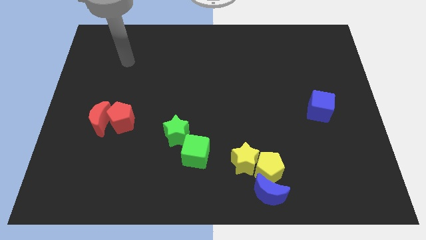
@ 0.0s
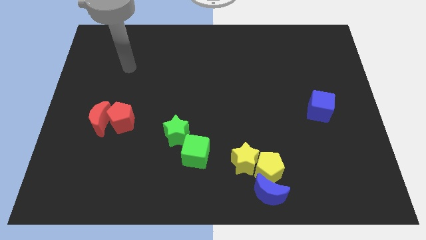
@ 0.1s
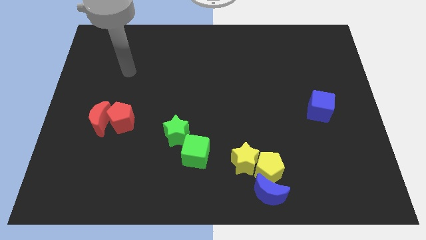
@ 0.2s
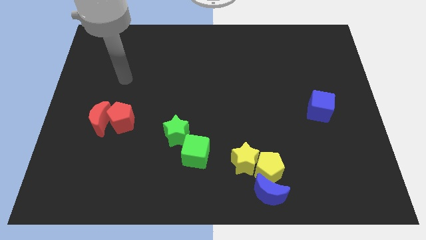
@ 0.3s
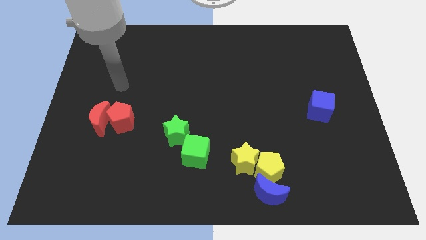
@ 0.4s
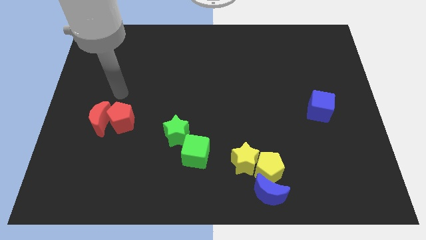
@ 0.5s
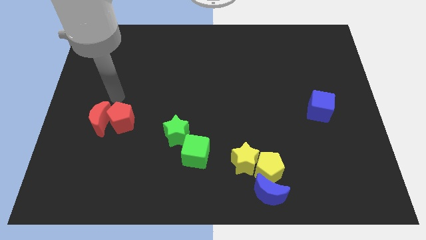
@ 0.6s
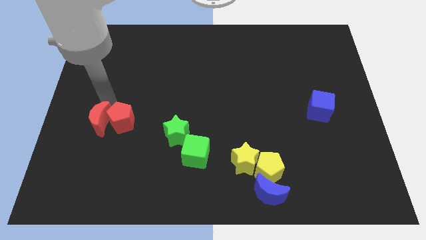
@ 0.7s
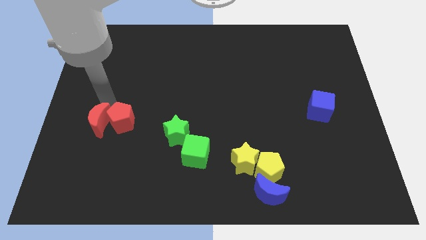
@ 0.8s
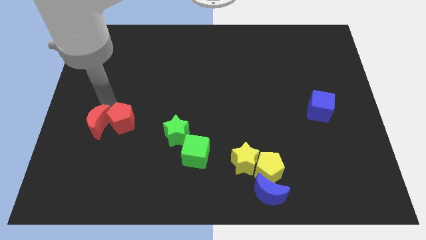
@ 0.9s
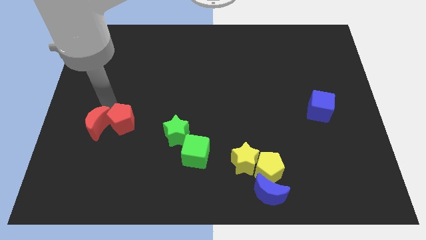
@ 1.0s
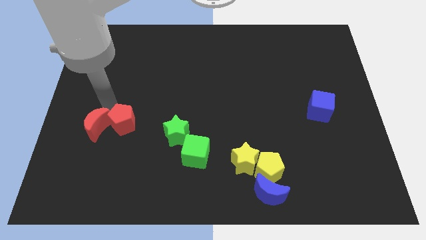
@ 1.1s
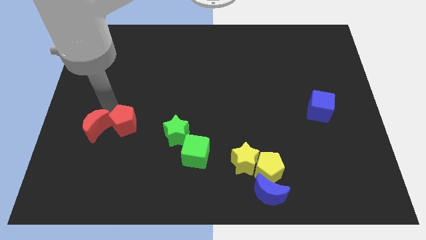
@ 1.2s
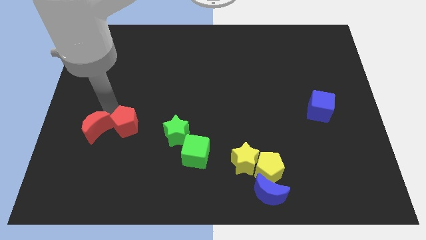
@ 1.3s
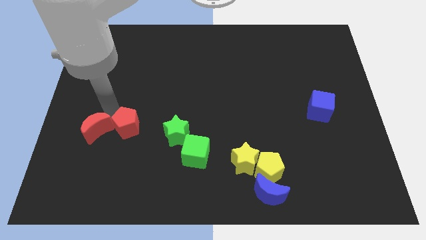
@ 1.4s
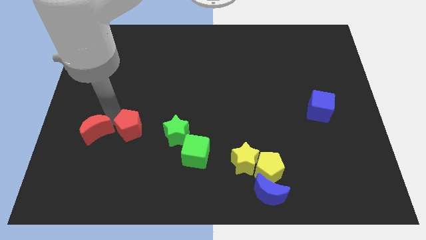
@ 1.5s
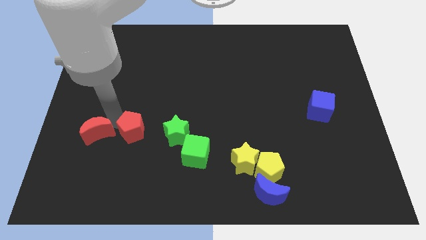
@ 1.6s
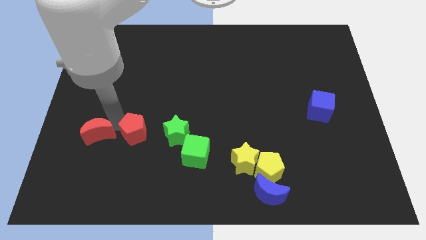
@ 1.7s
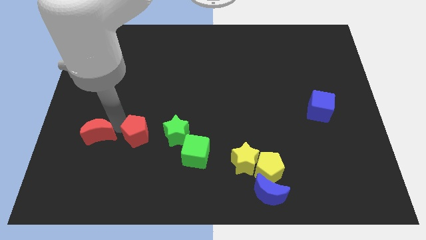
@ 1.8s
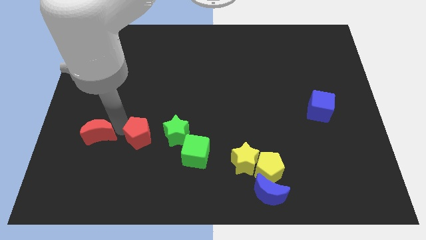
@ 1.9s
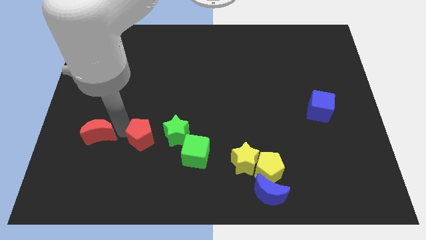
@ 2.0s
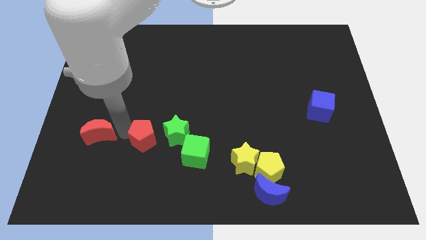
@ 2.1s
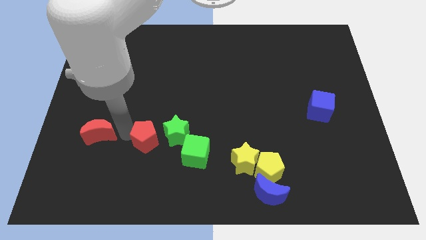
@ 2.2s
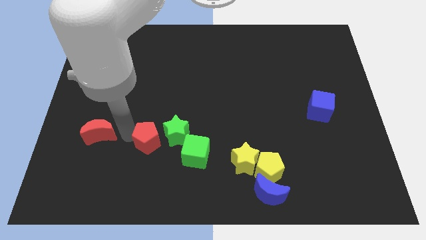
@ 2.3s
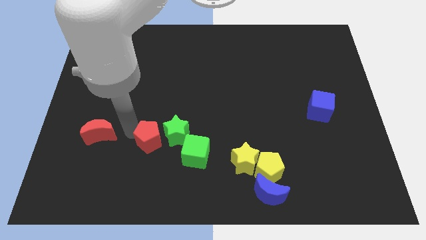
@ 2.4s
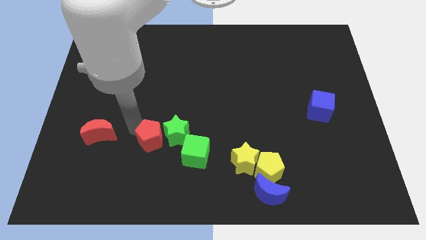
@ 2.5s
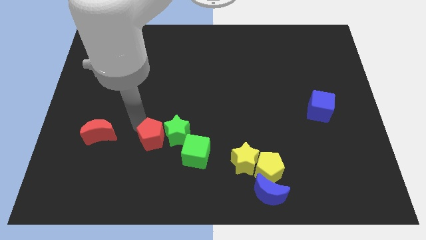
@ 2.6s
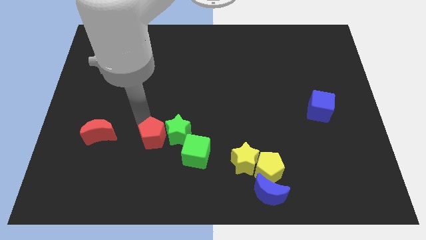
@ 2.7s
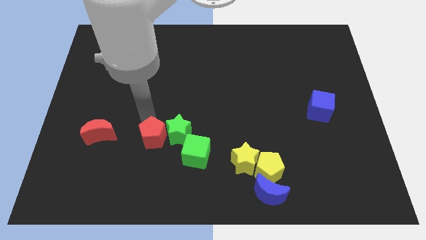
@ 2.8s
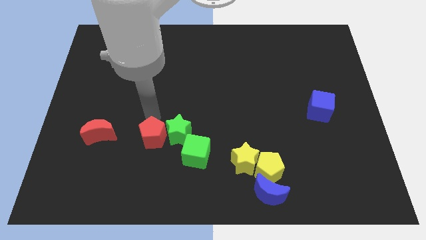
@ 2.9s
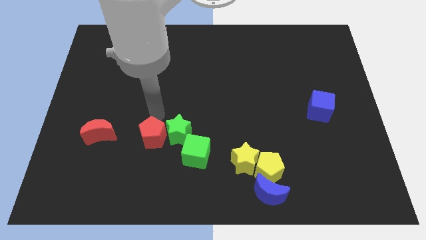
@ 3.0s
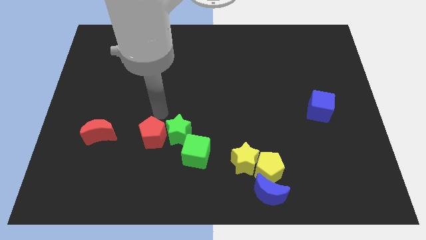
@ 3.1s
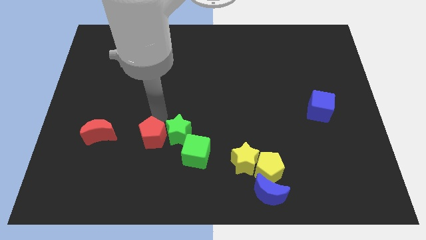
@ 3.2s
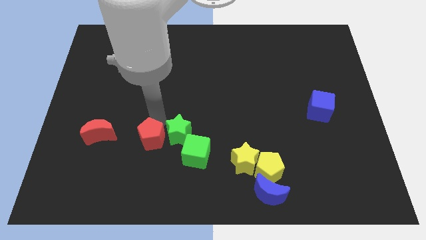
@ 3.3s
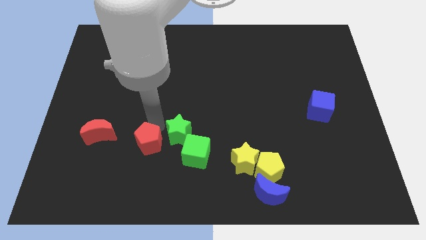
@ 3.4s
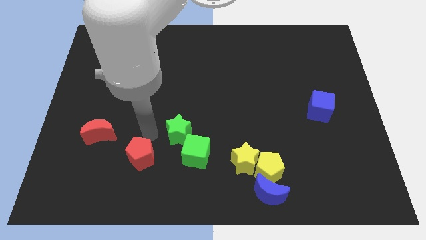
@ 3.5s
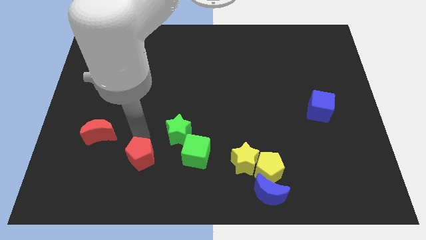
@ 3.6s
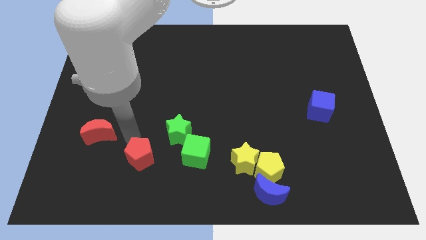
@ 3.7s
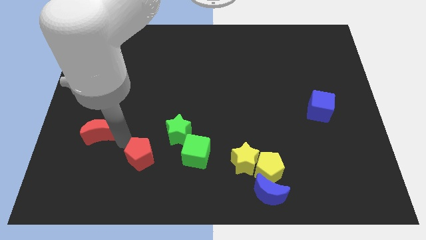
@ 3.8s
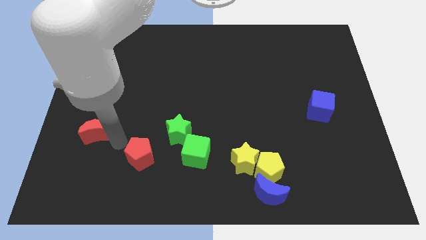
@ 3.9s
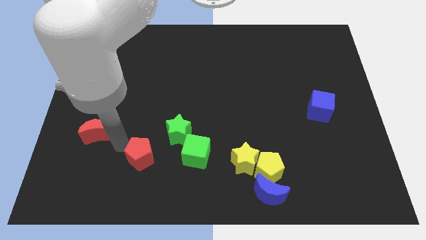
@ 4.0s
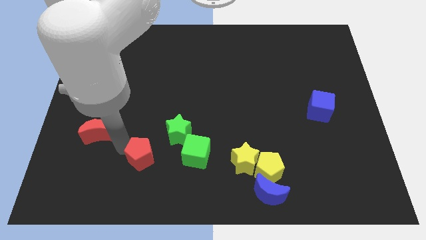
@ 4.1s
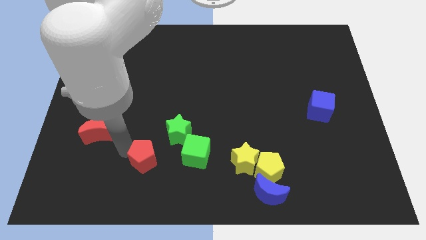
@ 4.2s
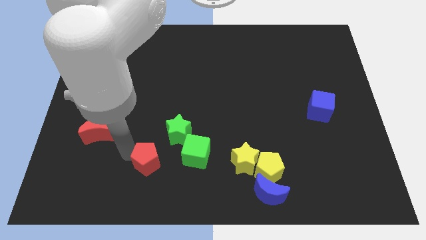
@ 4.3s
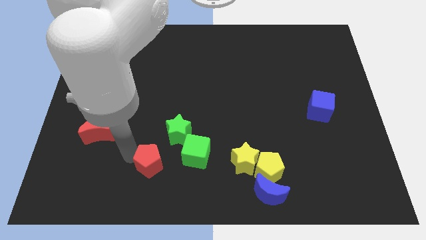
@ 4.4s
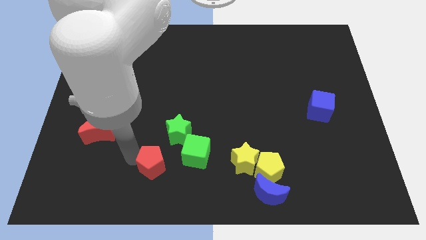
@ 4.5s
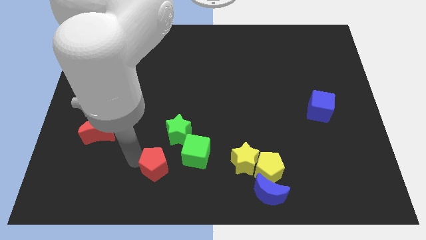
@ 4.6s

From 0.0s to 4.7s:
move the red pentagon to the bottom side of the green star

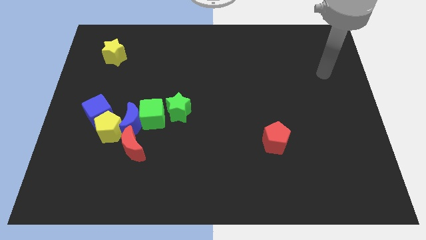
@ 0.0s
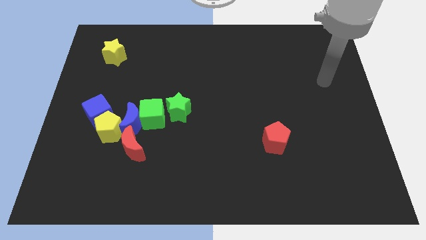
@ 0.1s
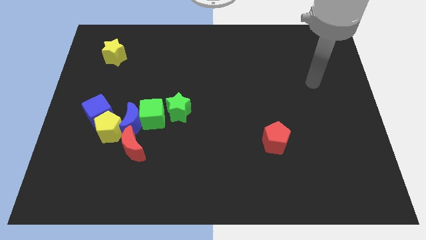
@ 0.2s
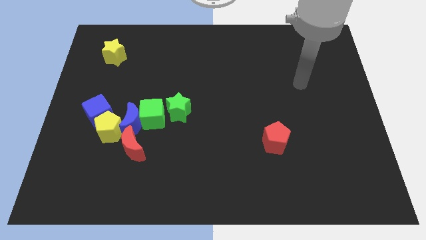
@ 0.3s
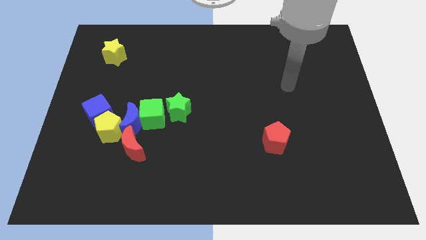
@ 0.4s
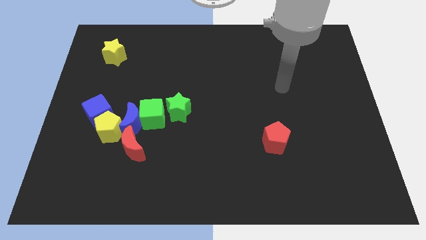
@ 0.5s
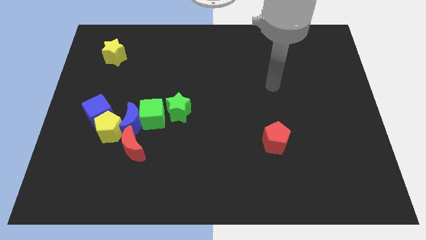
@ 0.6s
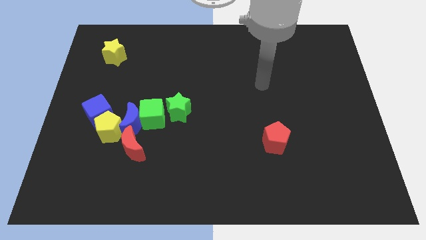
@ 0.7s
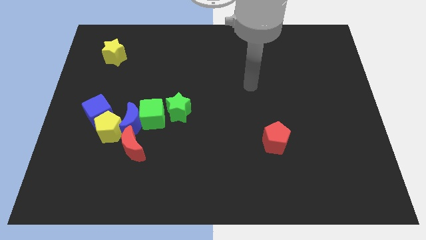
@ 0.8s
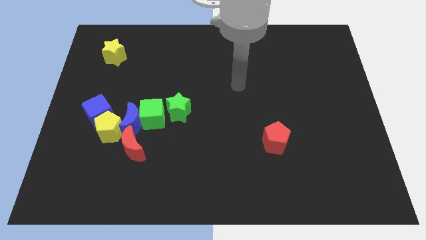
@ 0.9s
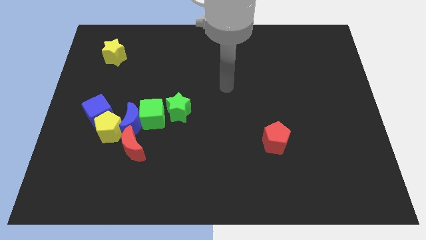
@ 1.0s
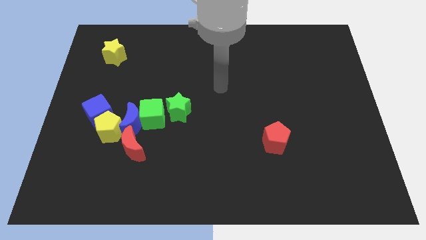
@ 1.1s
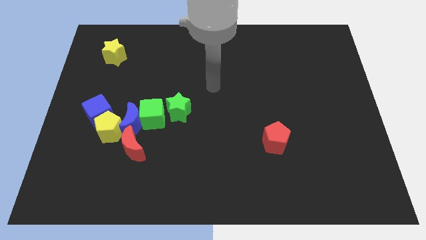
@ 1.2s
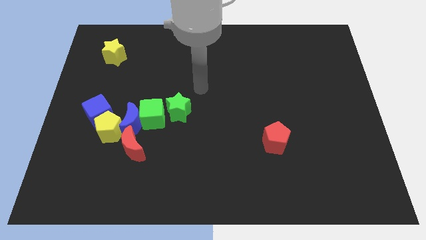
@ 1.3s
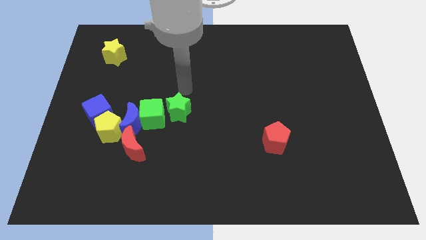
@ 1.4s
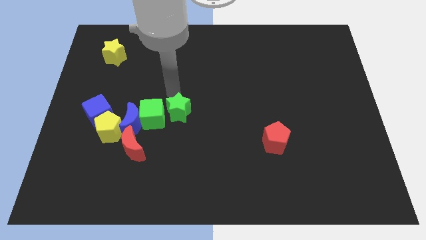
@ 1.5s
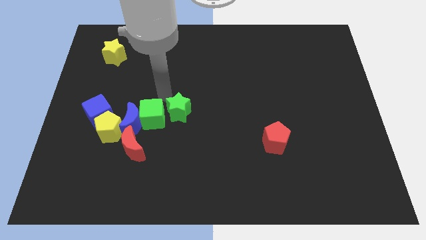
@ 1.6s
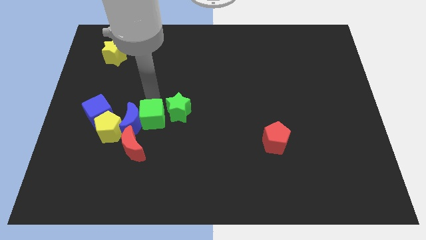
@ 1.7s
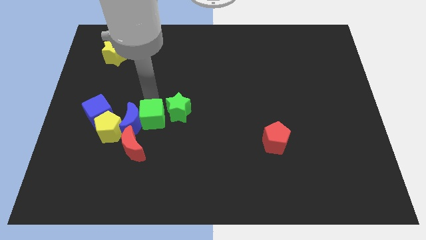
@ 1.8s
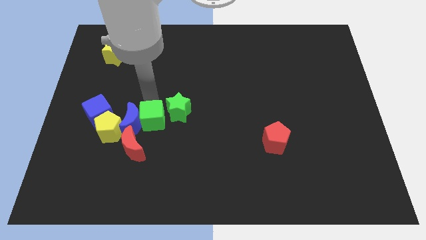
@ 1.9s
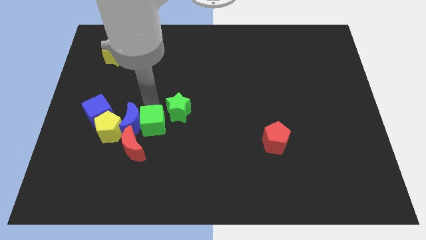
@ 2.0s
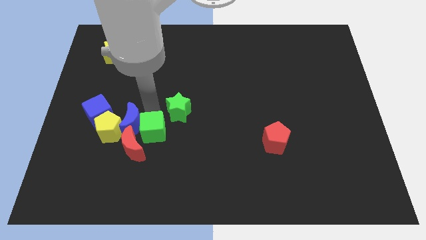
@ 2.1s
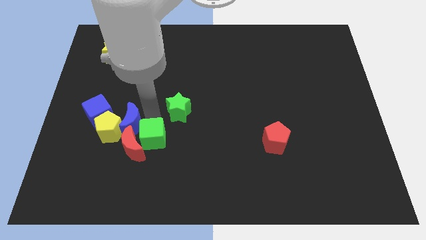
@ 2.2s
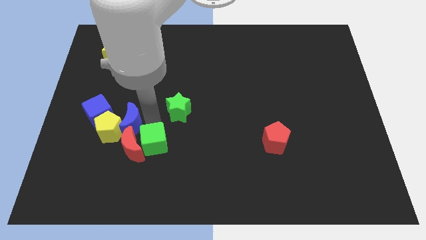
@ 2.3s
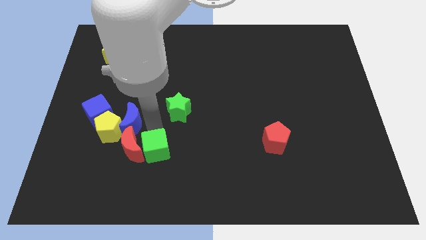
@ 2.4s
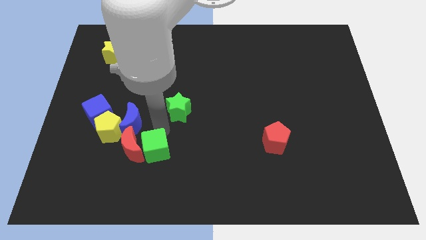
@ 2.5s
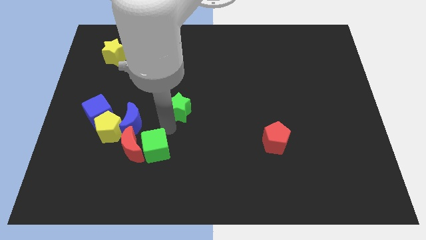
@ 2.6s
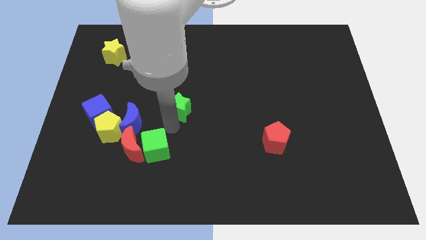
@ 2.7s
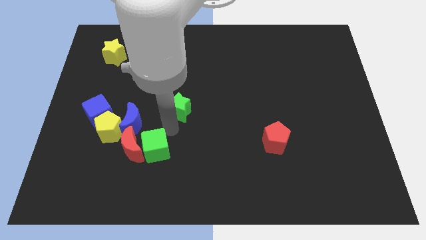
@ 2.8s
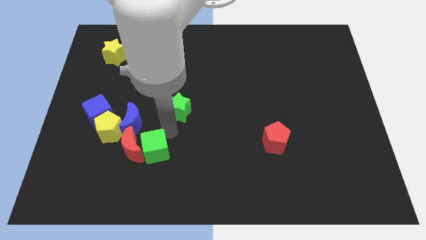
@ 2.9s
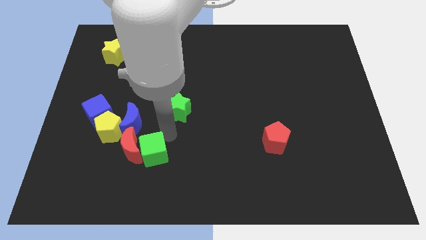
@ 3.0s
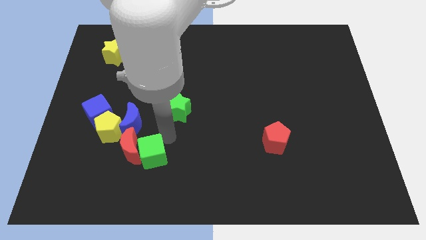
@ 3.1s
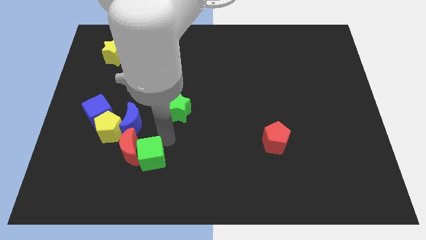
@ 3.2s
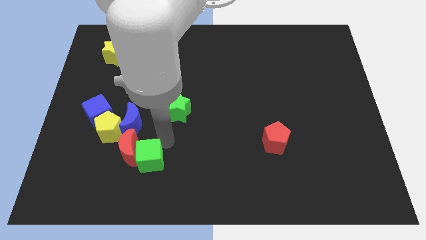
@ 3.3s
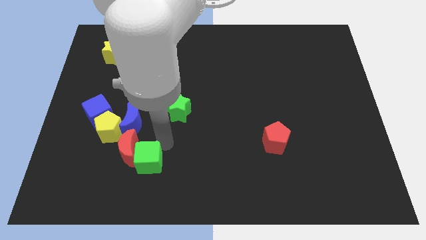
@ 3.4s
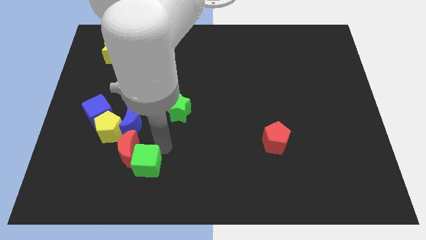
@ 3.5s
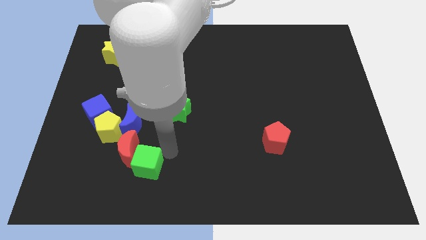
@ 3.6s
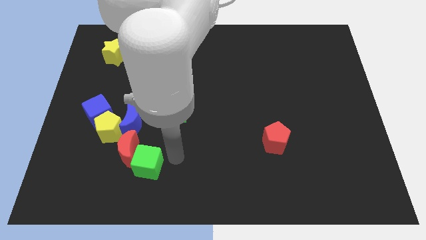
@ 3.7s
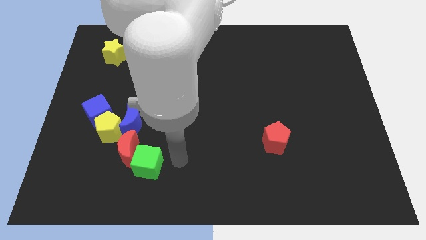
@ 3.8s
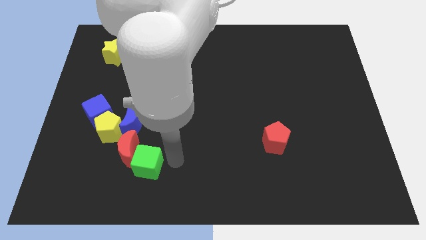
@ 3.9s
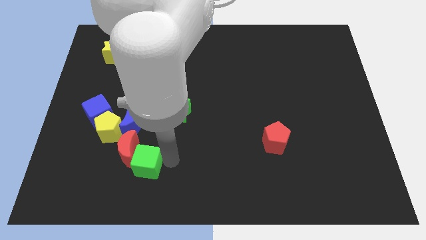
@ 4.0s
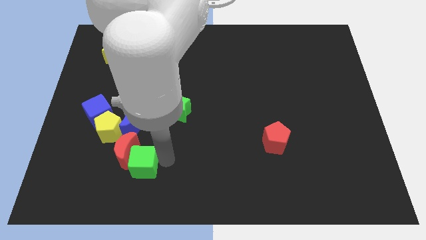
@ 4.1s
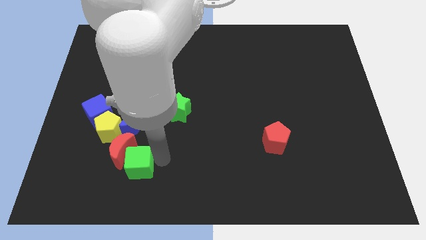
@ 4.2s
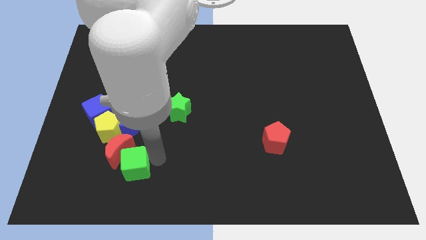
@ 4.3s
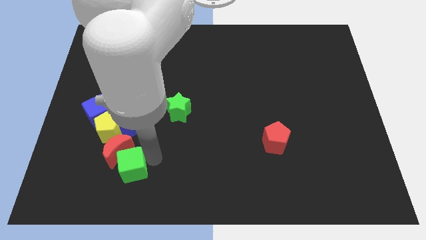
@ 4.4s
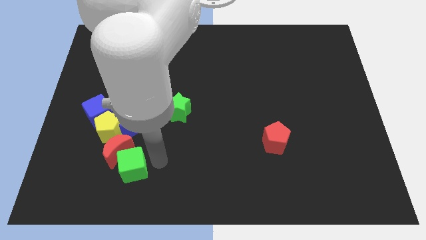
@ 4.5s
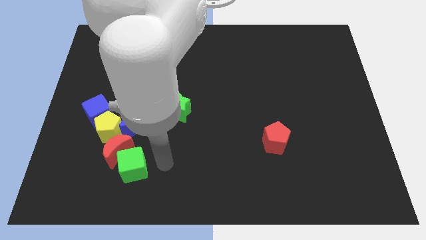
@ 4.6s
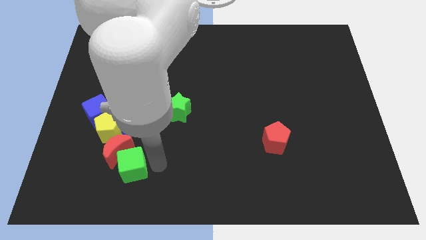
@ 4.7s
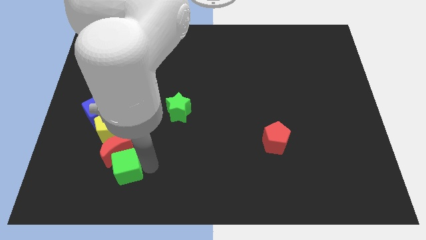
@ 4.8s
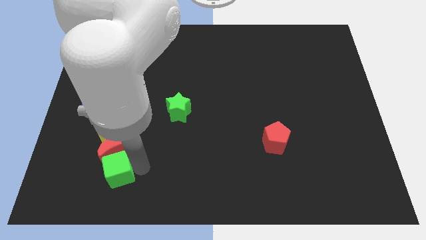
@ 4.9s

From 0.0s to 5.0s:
move the green cube to the bottom of the yellow pentagon
